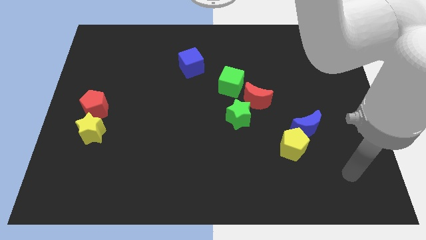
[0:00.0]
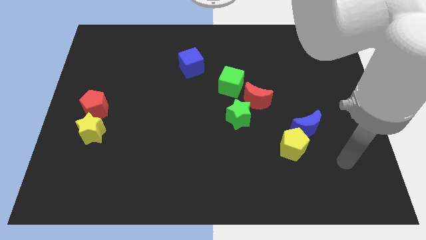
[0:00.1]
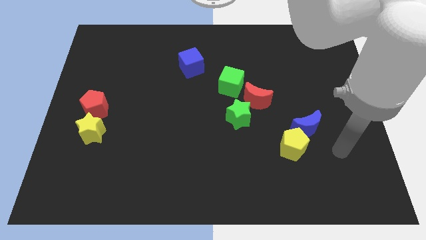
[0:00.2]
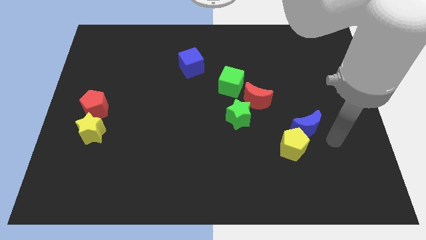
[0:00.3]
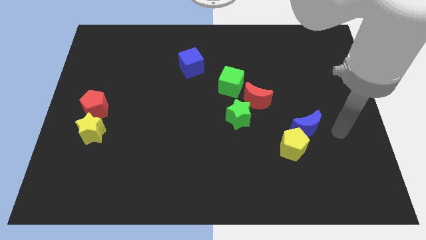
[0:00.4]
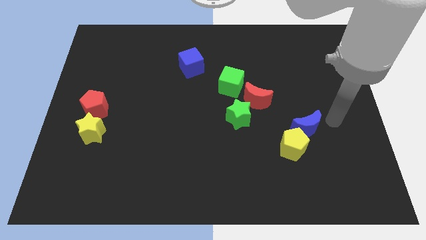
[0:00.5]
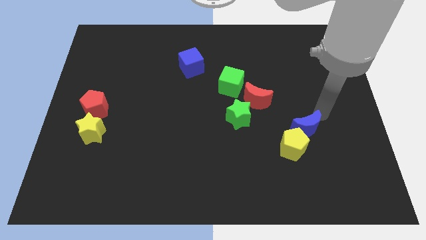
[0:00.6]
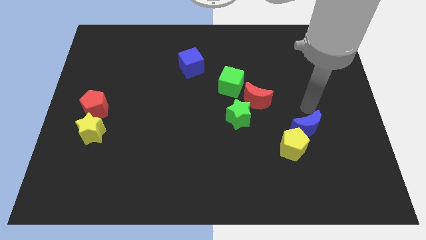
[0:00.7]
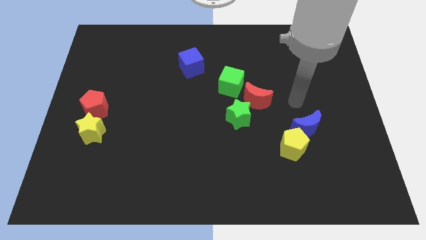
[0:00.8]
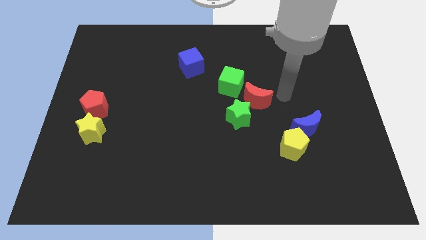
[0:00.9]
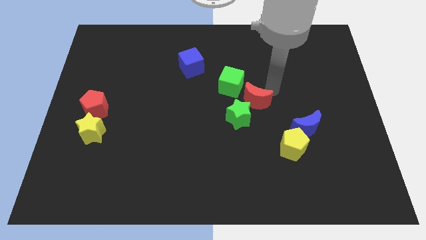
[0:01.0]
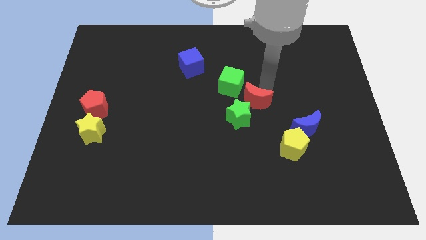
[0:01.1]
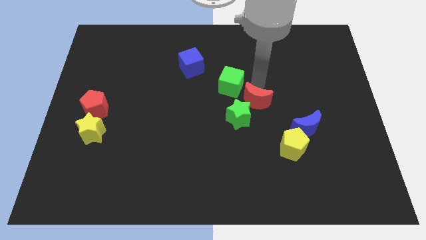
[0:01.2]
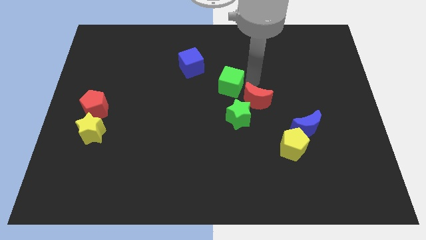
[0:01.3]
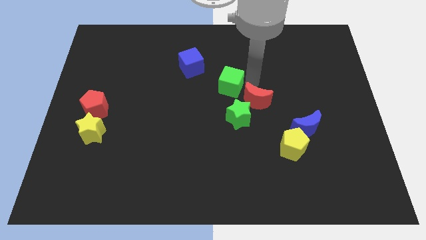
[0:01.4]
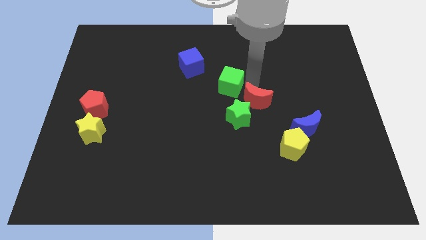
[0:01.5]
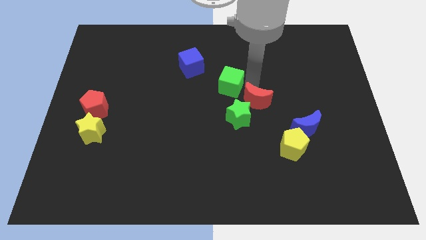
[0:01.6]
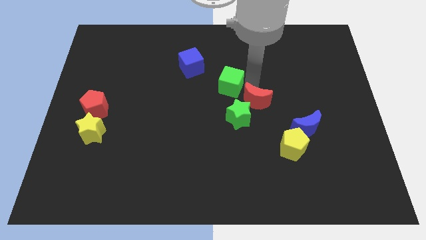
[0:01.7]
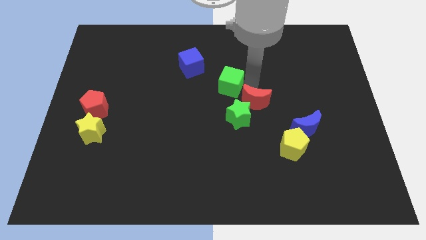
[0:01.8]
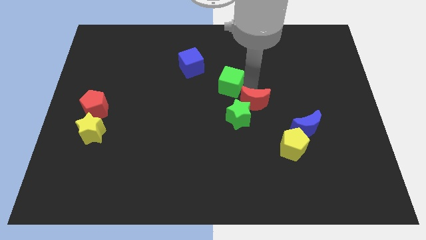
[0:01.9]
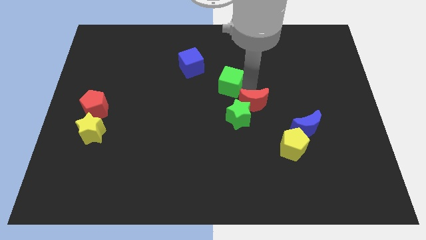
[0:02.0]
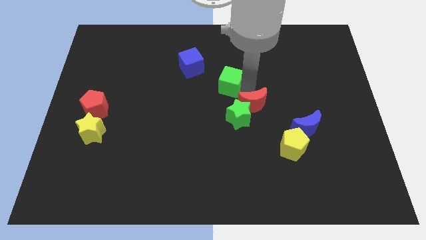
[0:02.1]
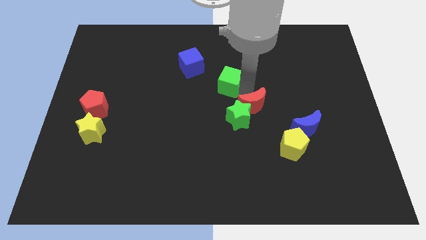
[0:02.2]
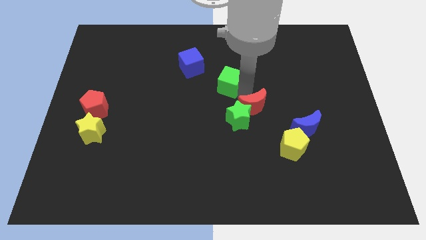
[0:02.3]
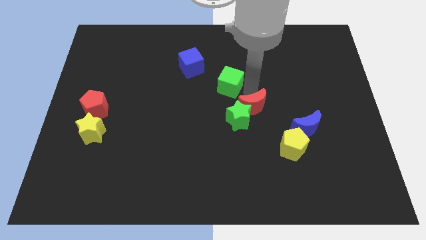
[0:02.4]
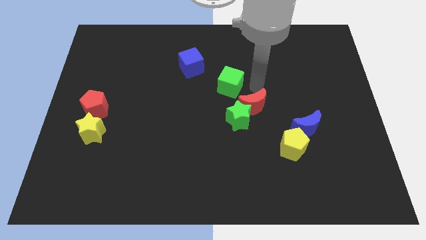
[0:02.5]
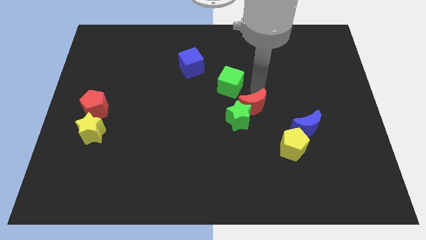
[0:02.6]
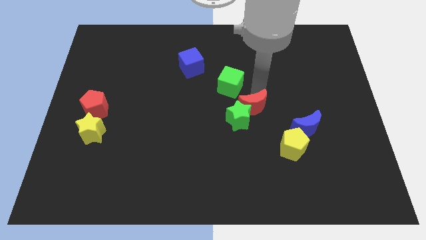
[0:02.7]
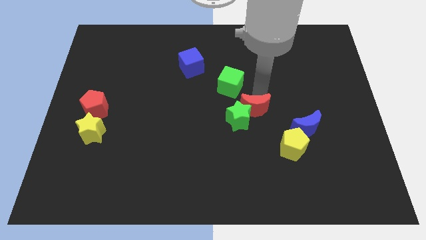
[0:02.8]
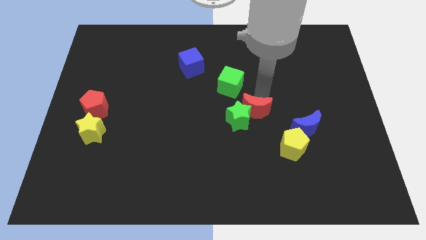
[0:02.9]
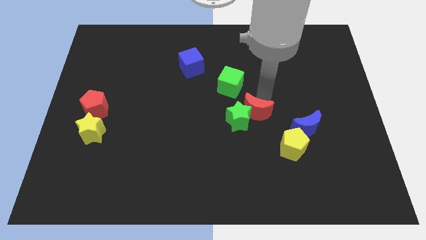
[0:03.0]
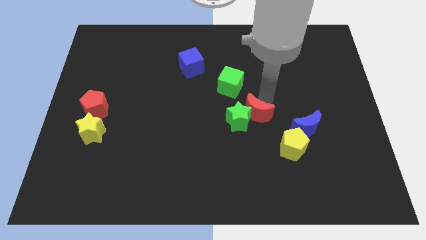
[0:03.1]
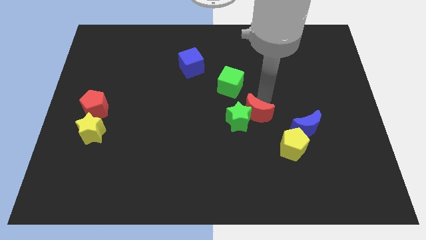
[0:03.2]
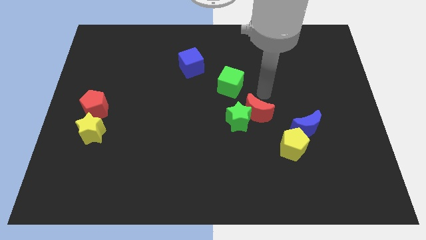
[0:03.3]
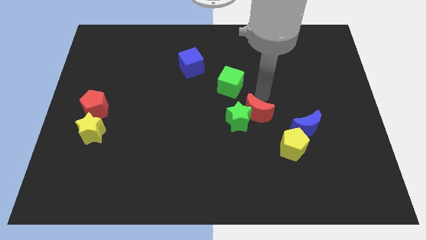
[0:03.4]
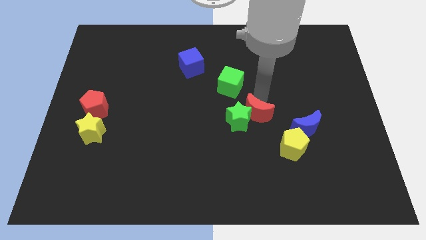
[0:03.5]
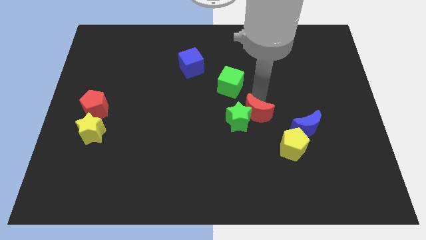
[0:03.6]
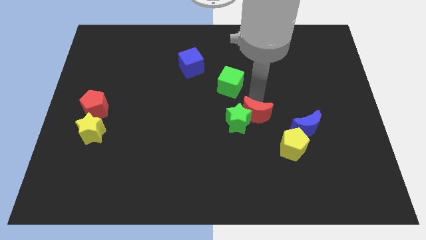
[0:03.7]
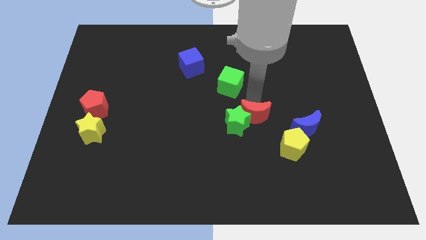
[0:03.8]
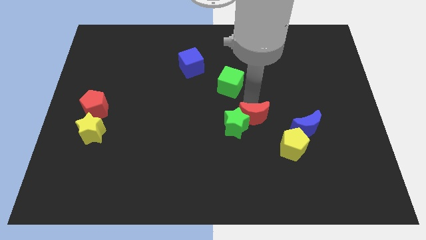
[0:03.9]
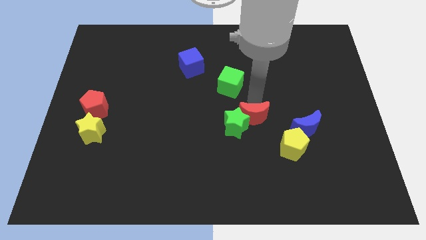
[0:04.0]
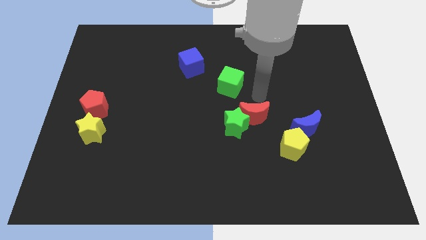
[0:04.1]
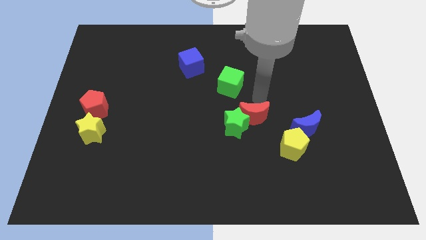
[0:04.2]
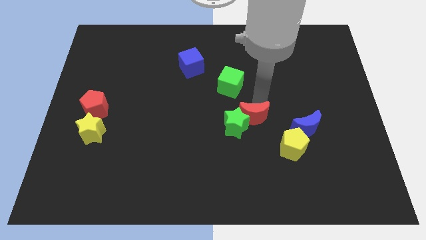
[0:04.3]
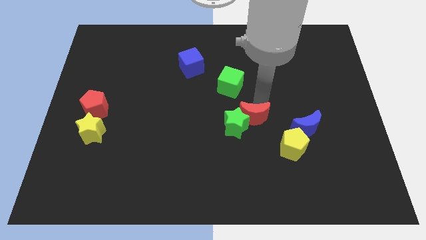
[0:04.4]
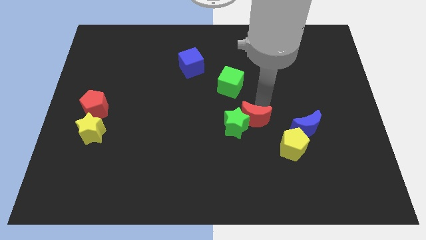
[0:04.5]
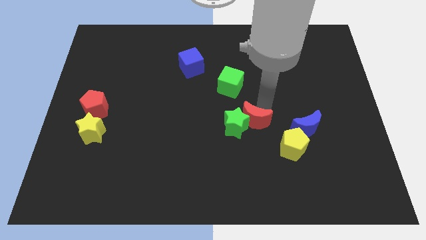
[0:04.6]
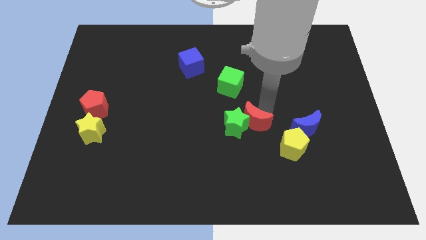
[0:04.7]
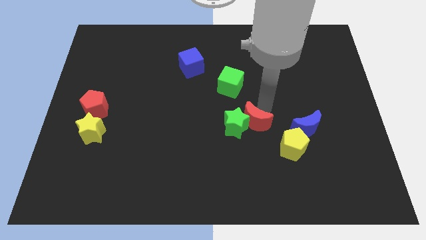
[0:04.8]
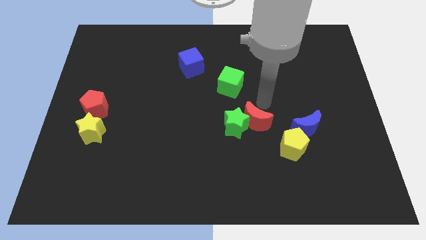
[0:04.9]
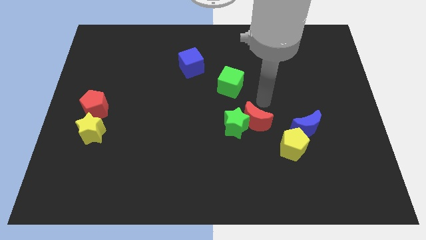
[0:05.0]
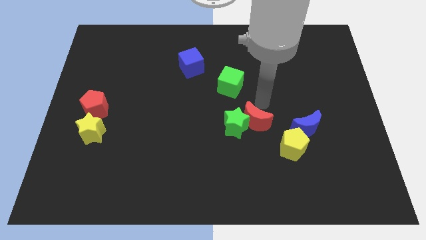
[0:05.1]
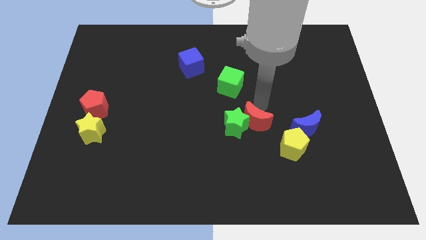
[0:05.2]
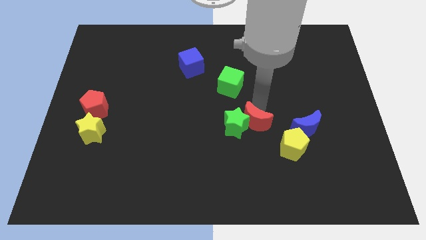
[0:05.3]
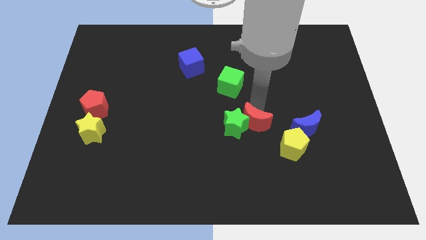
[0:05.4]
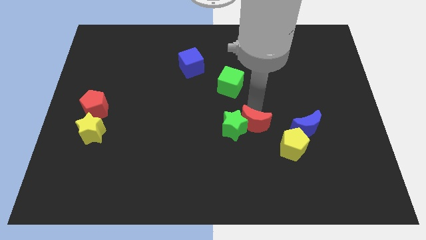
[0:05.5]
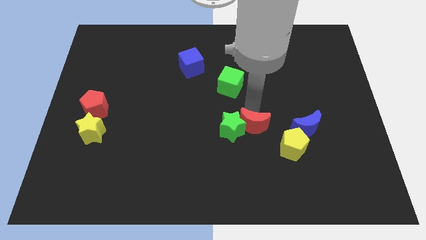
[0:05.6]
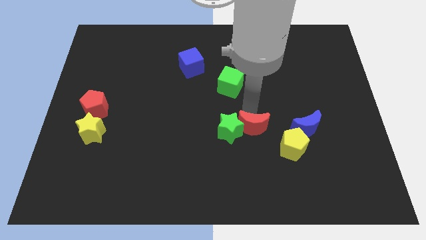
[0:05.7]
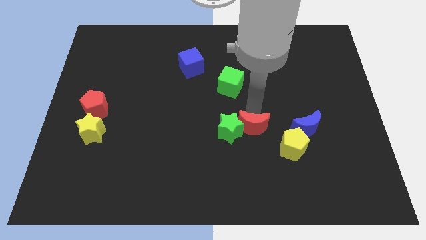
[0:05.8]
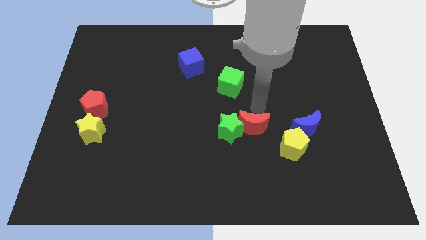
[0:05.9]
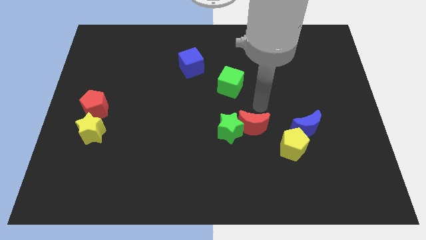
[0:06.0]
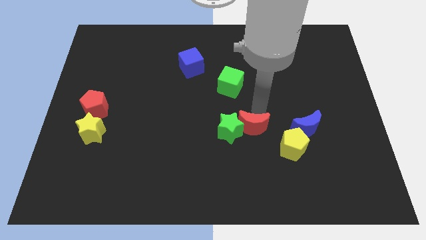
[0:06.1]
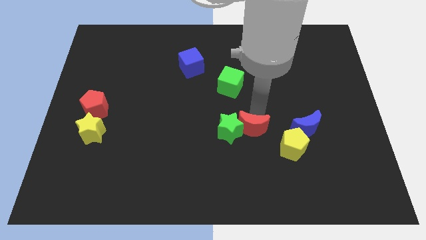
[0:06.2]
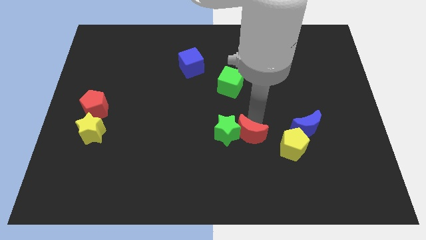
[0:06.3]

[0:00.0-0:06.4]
move the red moon just left of the yellow pentagon

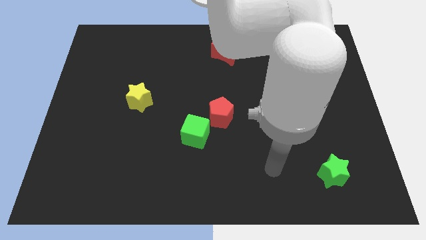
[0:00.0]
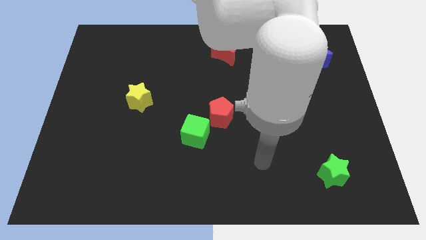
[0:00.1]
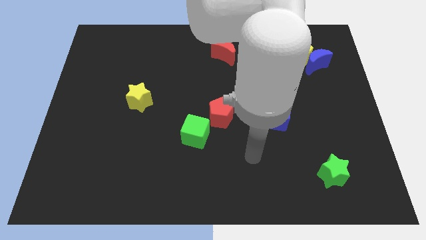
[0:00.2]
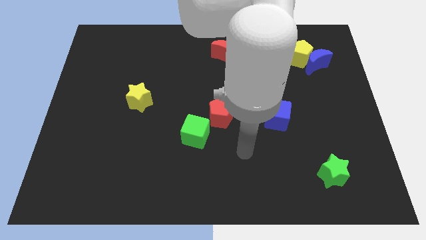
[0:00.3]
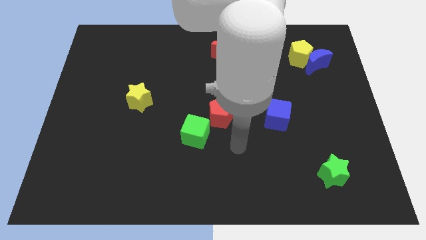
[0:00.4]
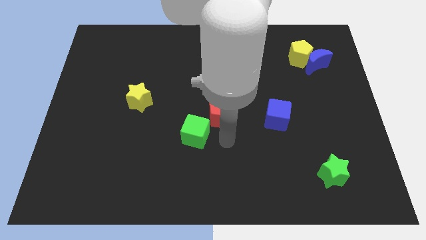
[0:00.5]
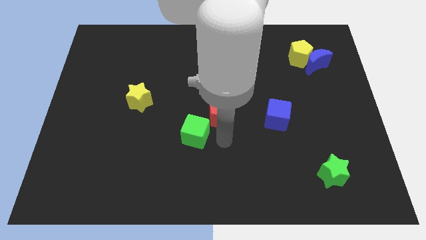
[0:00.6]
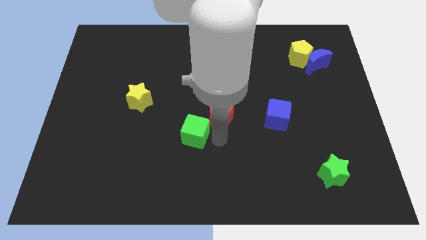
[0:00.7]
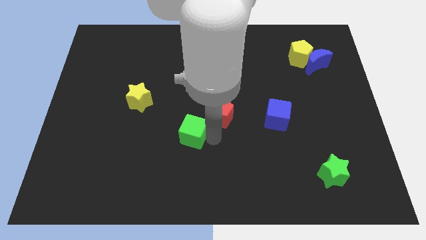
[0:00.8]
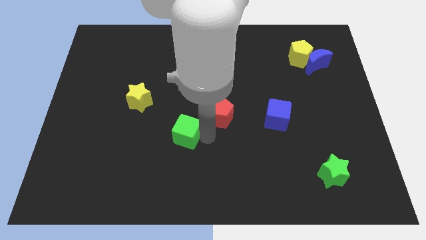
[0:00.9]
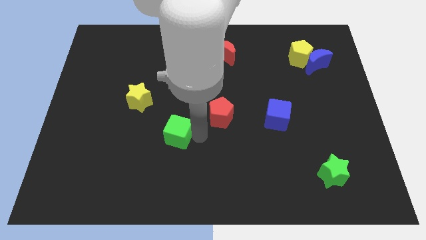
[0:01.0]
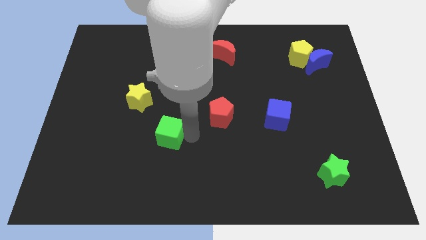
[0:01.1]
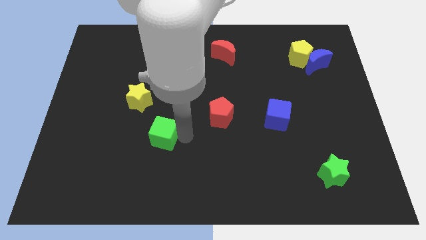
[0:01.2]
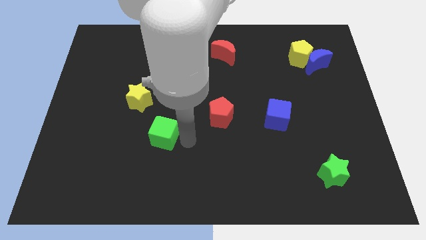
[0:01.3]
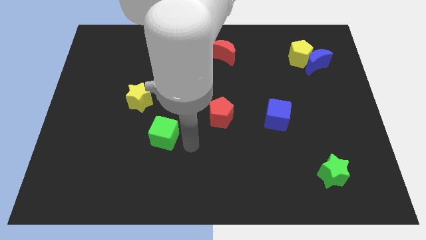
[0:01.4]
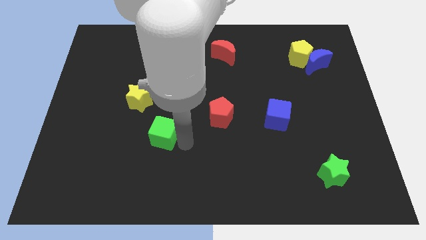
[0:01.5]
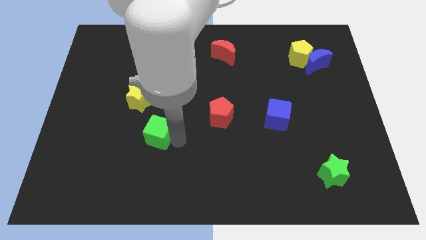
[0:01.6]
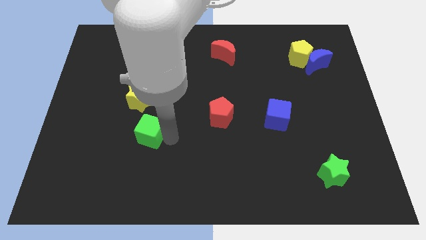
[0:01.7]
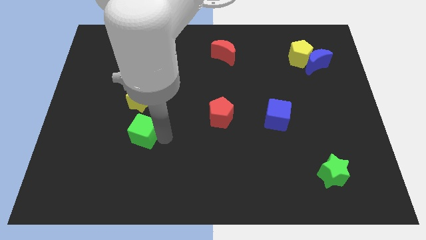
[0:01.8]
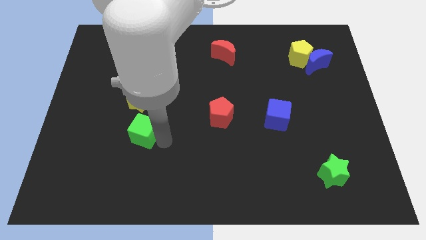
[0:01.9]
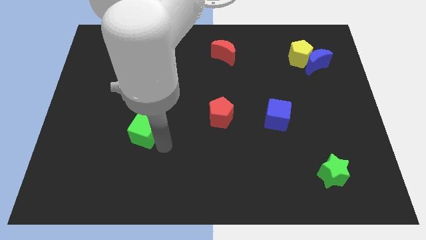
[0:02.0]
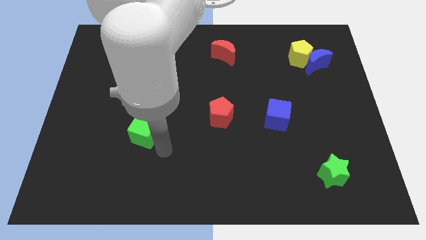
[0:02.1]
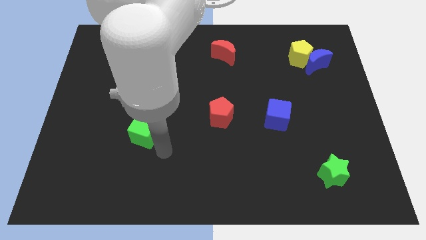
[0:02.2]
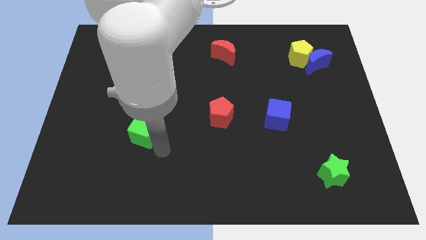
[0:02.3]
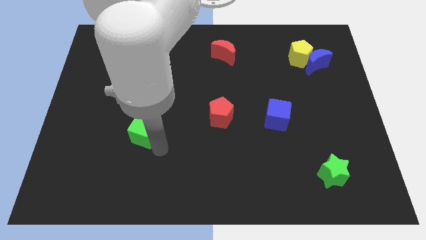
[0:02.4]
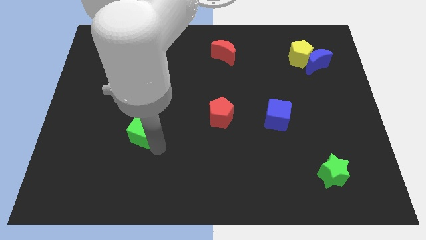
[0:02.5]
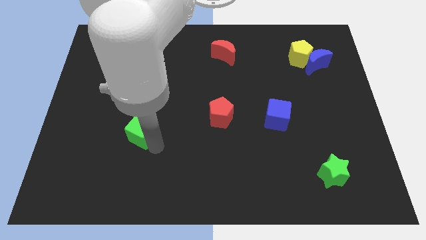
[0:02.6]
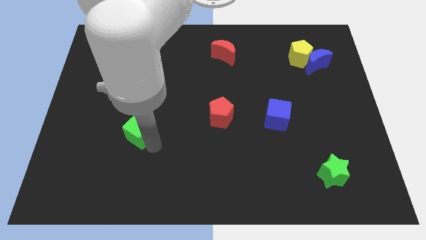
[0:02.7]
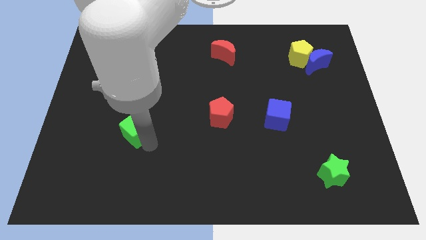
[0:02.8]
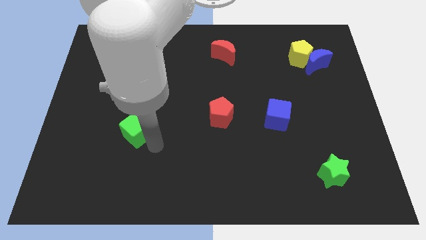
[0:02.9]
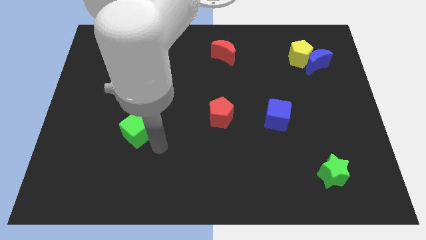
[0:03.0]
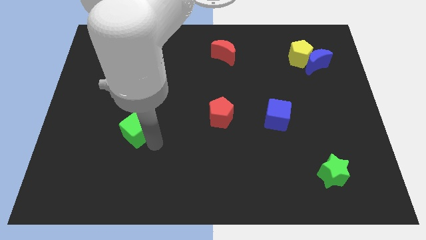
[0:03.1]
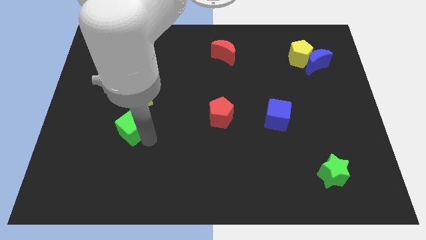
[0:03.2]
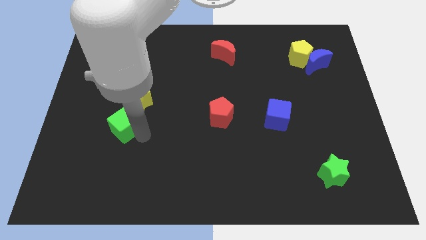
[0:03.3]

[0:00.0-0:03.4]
slide the green cube to the bottom left side of the yellow star
